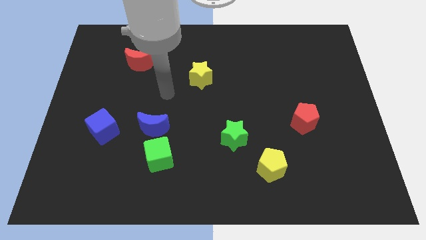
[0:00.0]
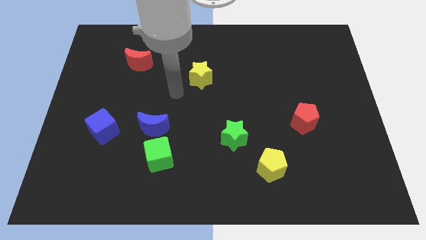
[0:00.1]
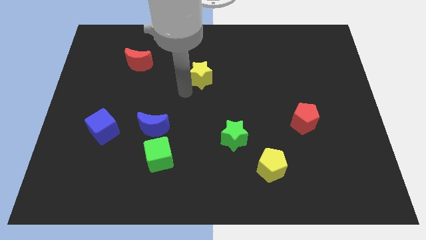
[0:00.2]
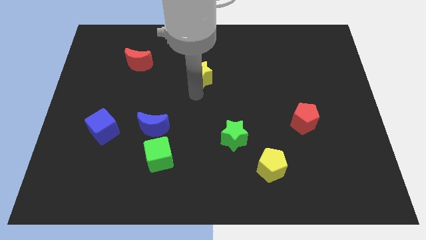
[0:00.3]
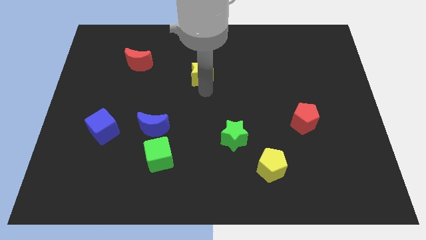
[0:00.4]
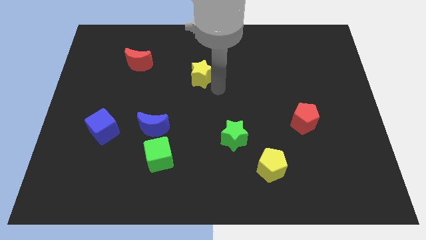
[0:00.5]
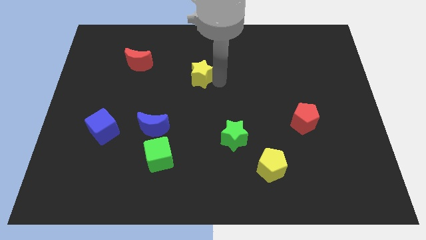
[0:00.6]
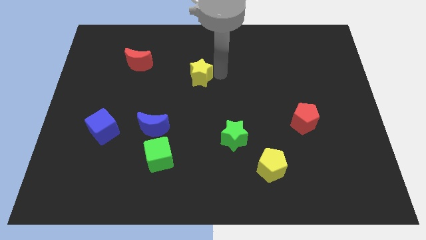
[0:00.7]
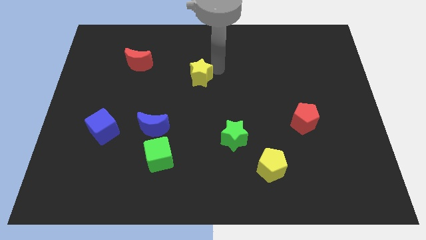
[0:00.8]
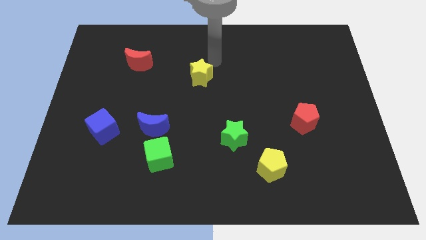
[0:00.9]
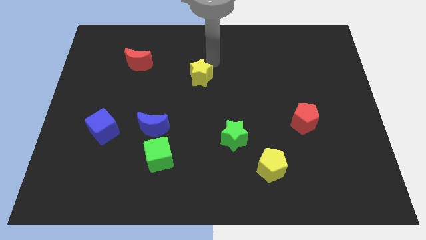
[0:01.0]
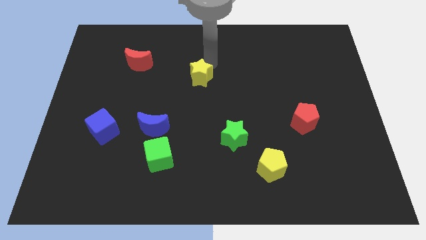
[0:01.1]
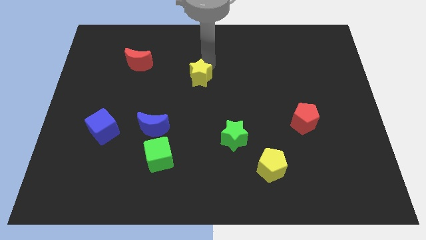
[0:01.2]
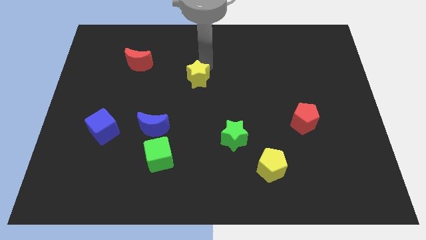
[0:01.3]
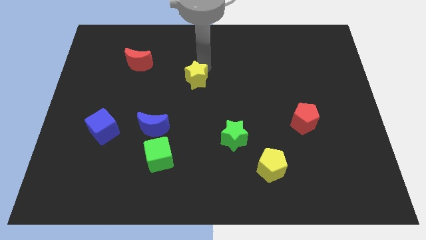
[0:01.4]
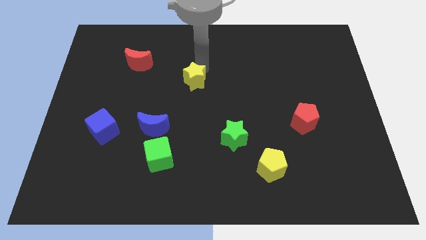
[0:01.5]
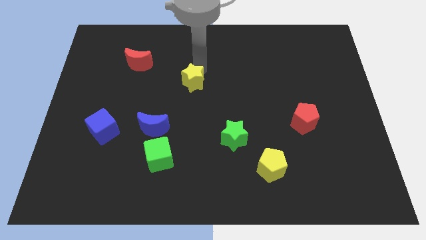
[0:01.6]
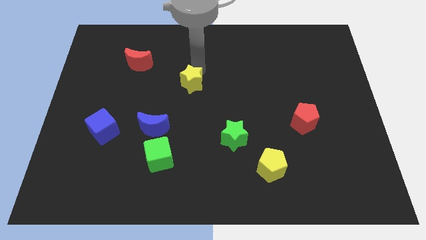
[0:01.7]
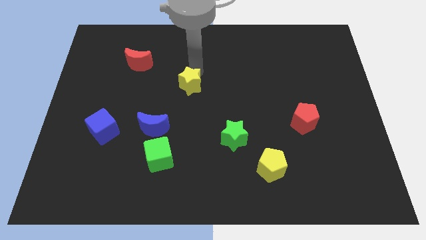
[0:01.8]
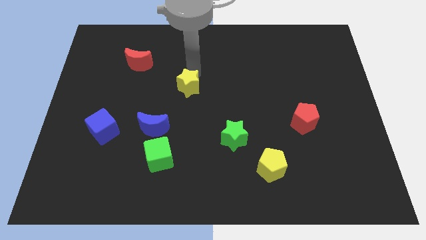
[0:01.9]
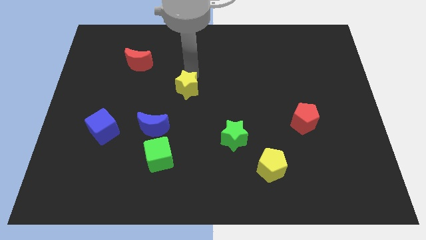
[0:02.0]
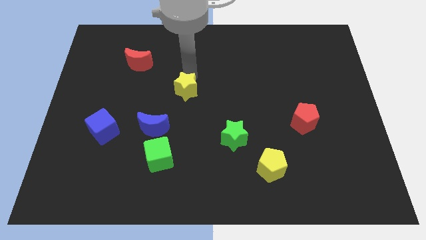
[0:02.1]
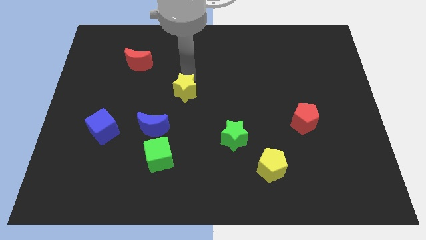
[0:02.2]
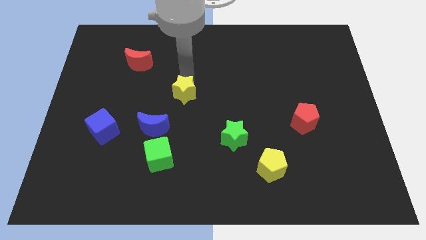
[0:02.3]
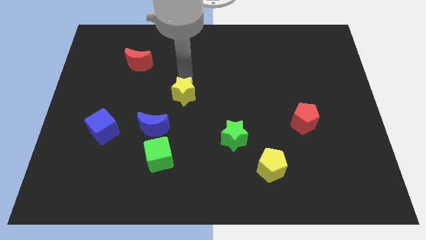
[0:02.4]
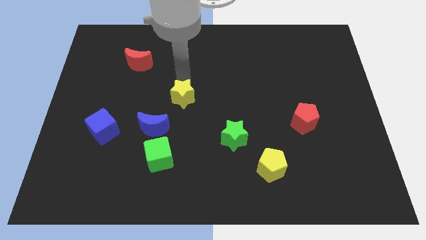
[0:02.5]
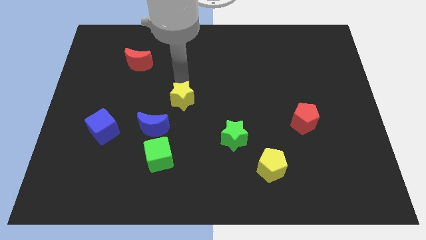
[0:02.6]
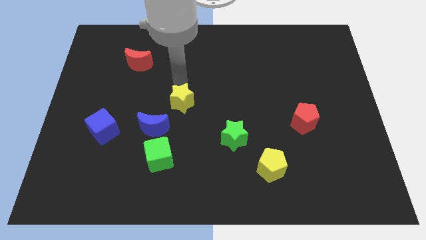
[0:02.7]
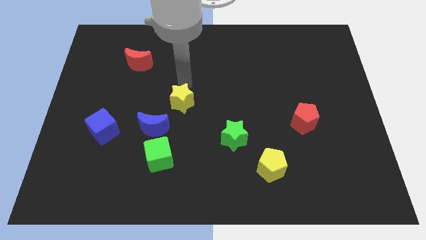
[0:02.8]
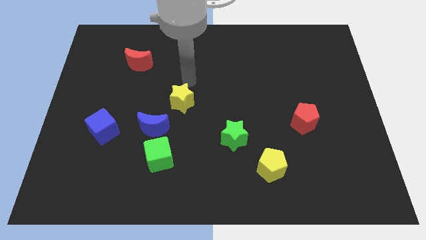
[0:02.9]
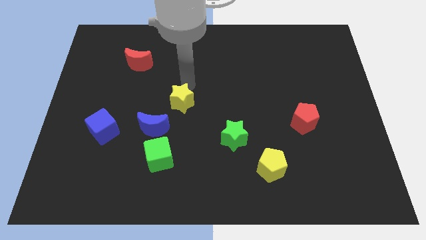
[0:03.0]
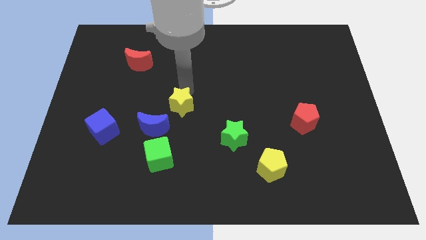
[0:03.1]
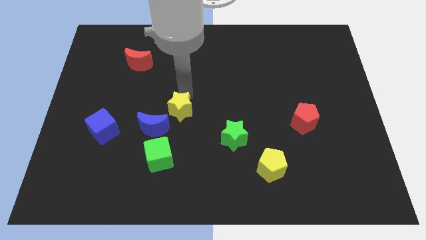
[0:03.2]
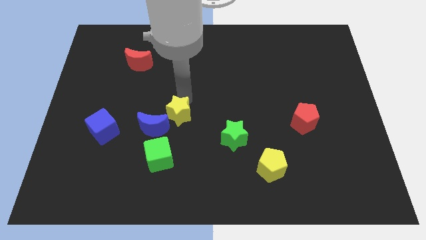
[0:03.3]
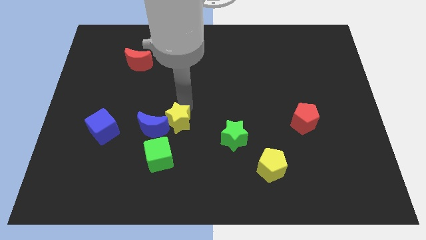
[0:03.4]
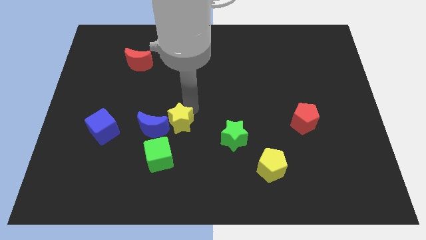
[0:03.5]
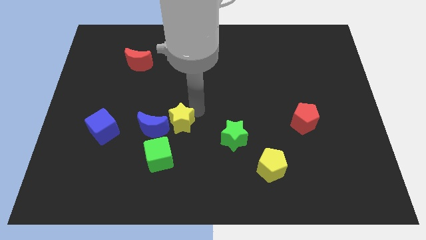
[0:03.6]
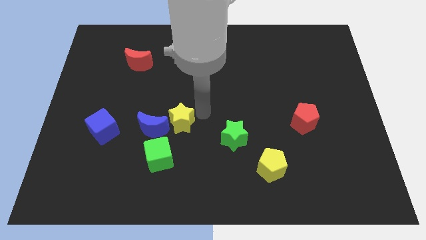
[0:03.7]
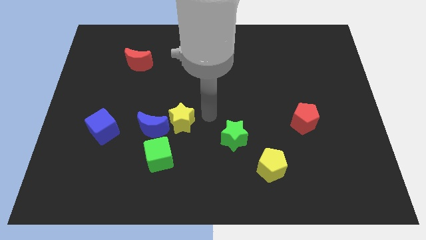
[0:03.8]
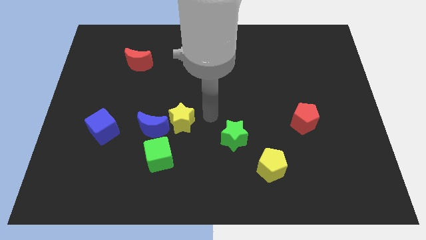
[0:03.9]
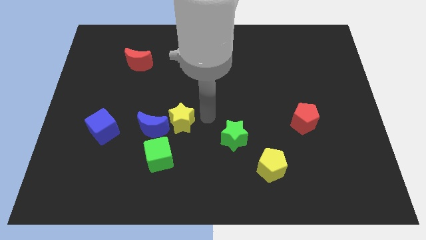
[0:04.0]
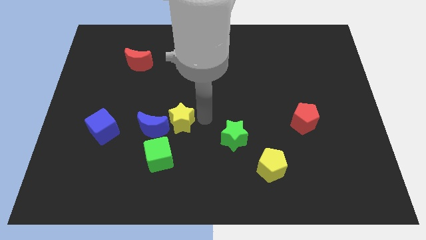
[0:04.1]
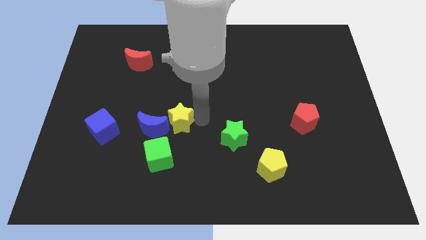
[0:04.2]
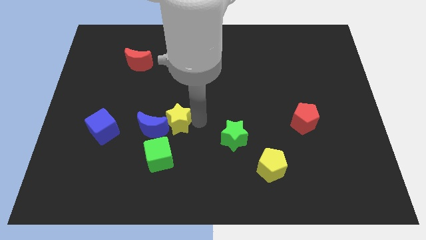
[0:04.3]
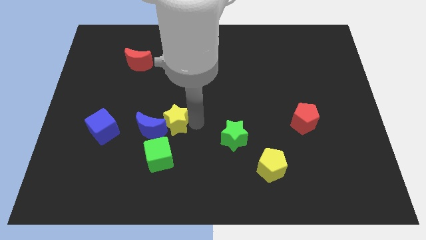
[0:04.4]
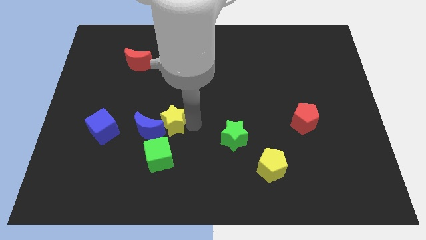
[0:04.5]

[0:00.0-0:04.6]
slide the yellow star right of the blue cube

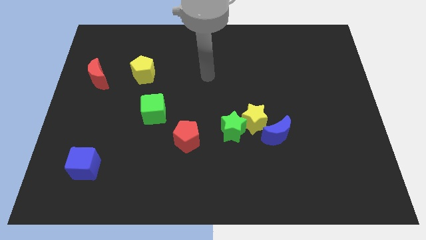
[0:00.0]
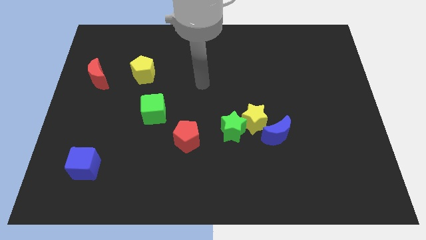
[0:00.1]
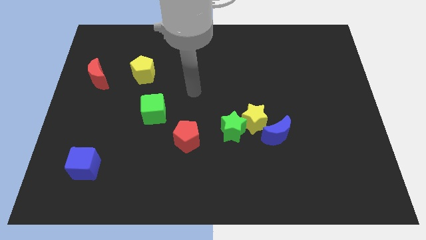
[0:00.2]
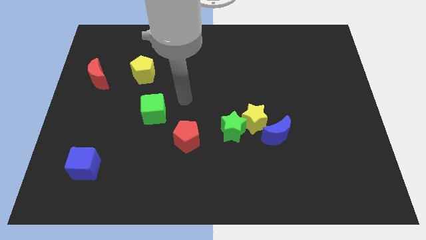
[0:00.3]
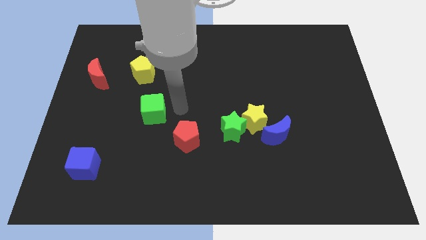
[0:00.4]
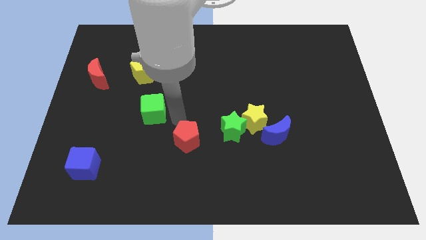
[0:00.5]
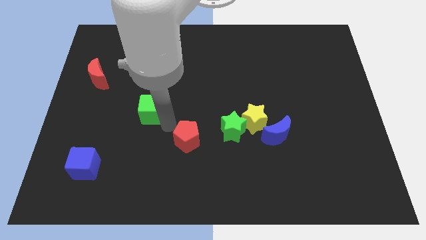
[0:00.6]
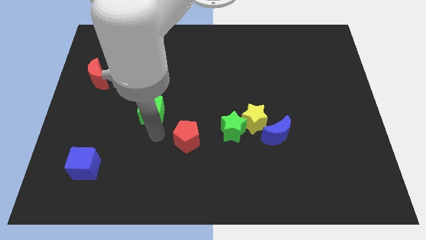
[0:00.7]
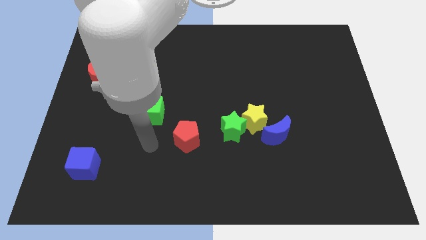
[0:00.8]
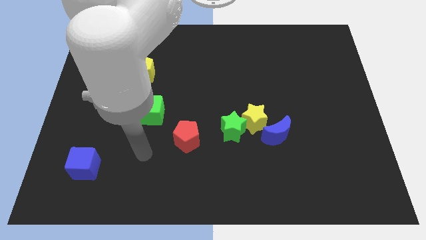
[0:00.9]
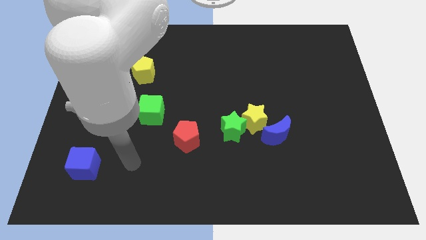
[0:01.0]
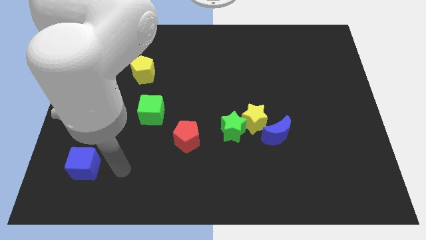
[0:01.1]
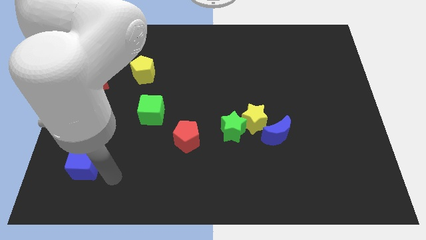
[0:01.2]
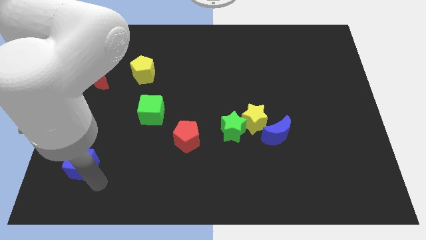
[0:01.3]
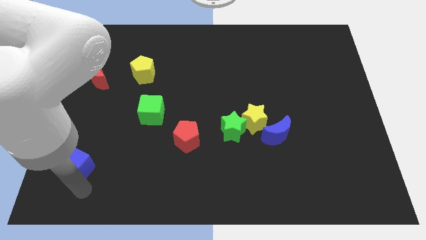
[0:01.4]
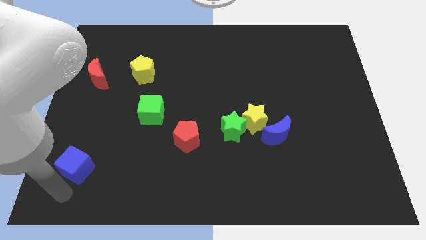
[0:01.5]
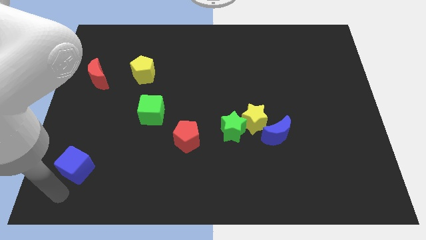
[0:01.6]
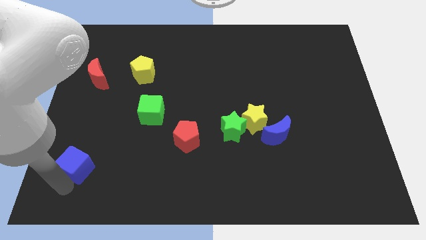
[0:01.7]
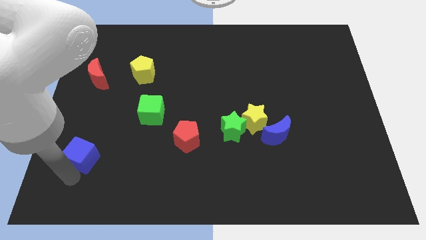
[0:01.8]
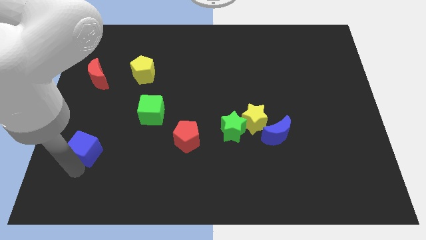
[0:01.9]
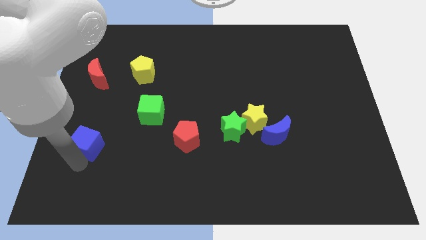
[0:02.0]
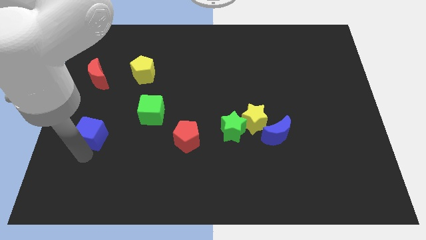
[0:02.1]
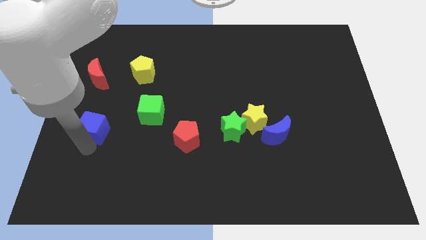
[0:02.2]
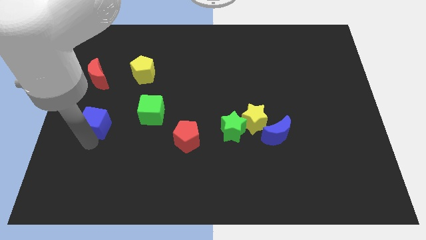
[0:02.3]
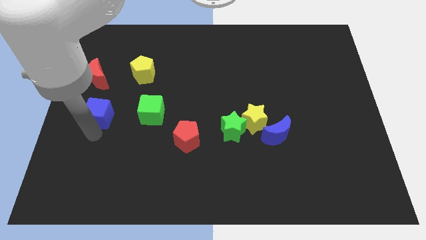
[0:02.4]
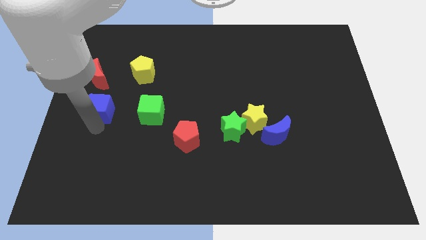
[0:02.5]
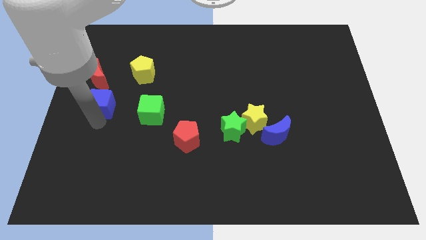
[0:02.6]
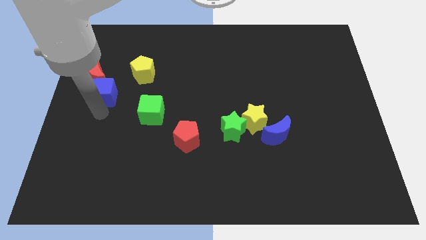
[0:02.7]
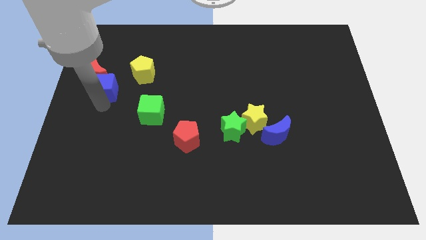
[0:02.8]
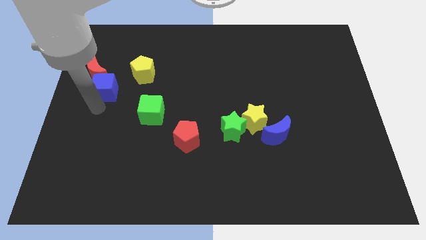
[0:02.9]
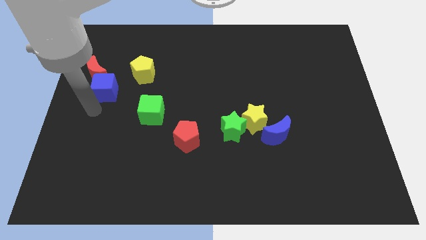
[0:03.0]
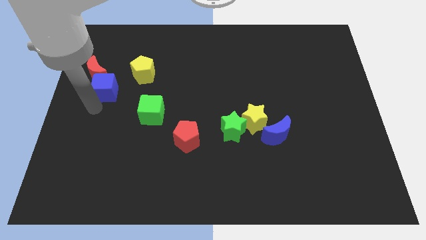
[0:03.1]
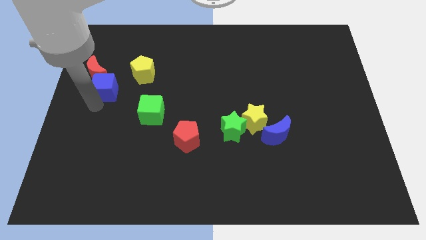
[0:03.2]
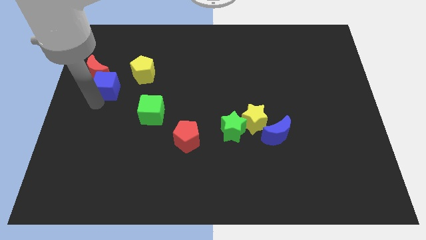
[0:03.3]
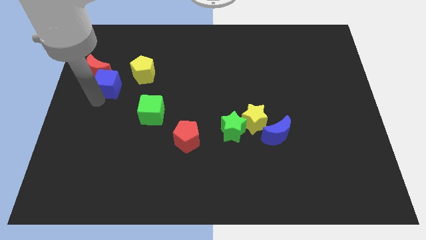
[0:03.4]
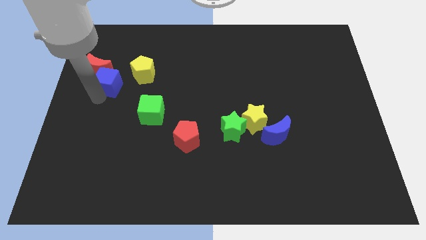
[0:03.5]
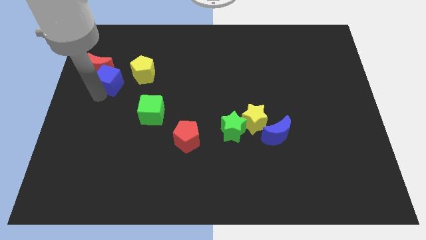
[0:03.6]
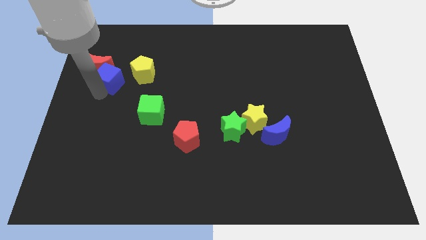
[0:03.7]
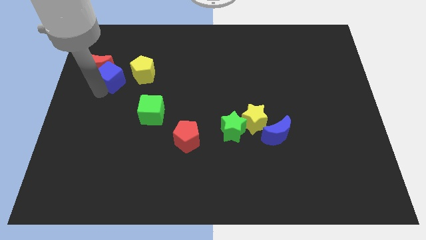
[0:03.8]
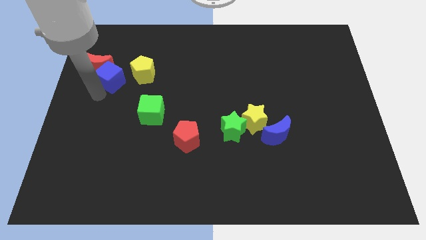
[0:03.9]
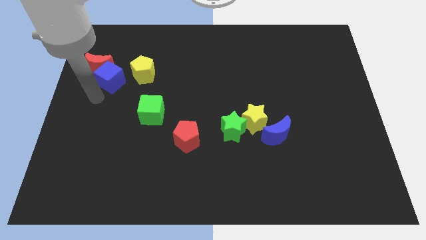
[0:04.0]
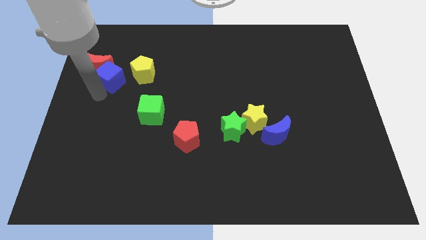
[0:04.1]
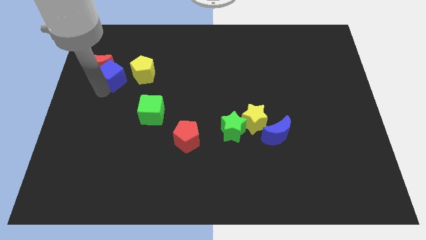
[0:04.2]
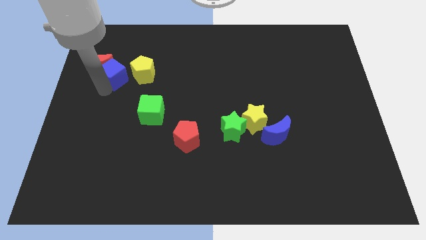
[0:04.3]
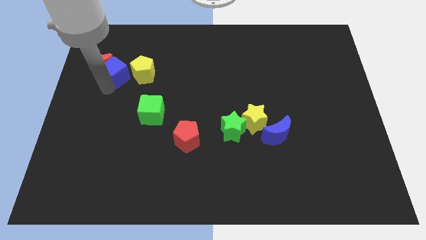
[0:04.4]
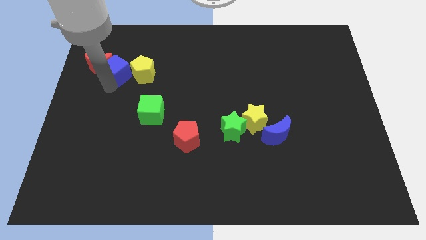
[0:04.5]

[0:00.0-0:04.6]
move the blue cube diagonally up and to the left of the yellow pentagon
